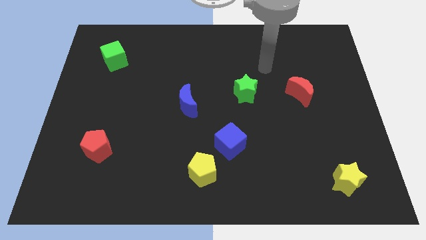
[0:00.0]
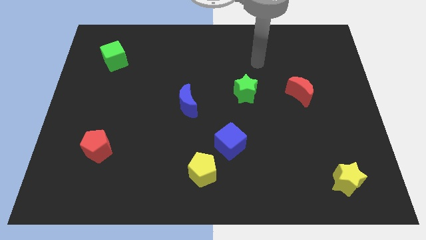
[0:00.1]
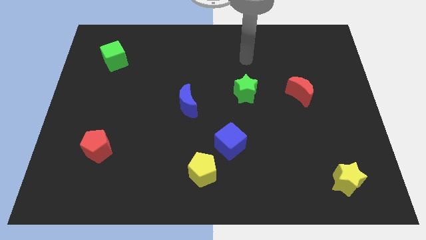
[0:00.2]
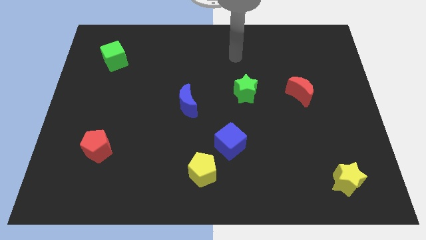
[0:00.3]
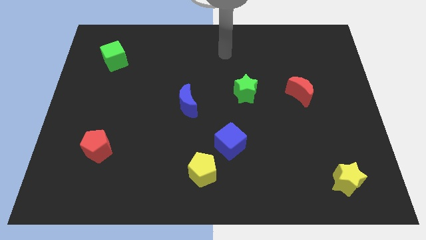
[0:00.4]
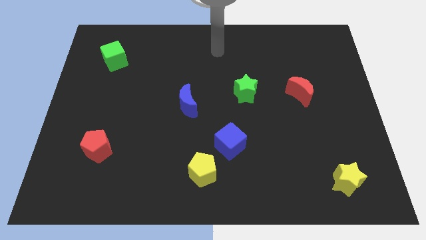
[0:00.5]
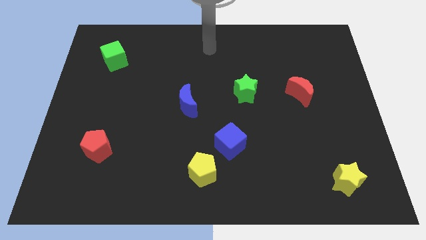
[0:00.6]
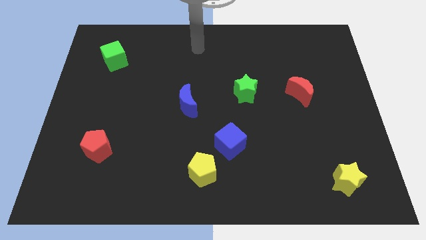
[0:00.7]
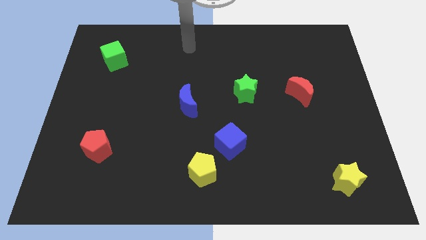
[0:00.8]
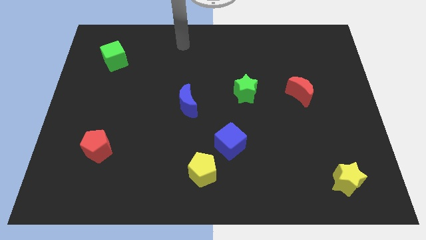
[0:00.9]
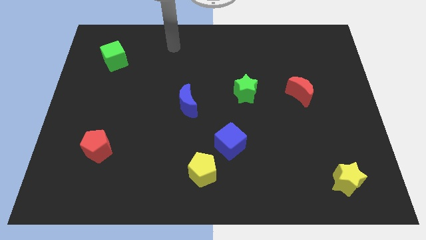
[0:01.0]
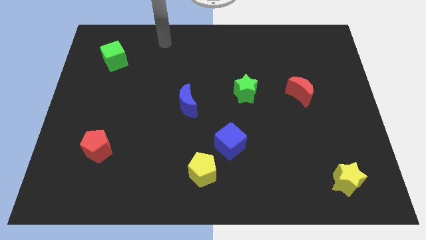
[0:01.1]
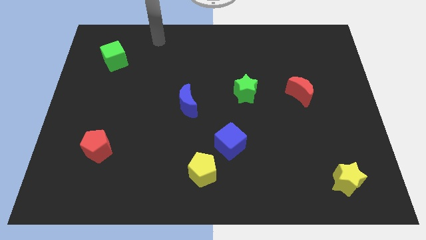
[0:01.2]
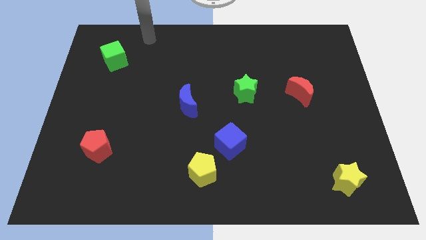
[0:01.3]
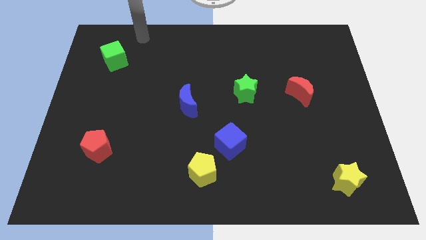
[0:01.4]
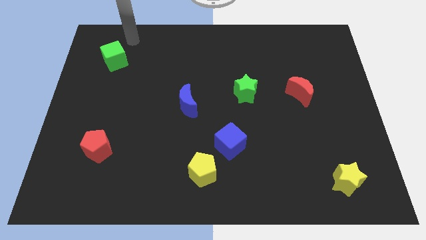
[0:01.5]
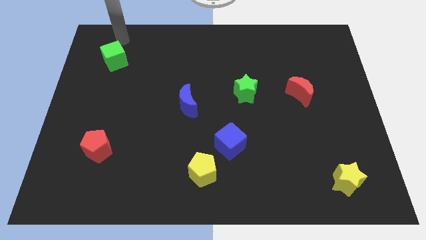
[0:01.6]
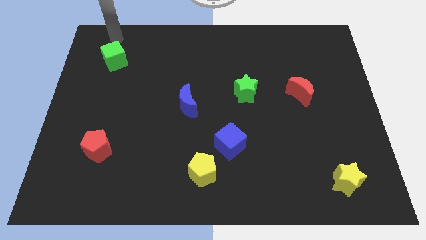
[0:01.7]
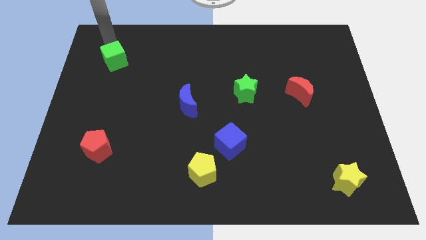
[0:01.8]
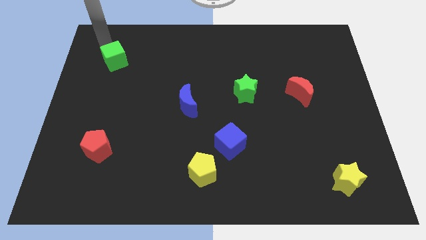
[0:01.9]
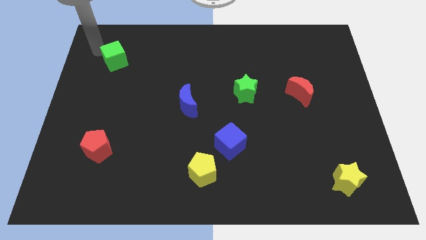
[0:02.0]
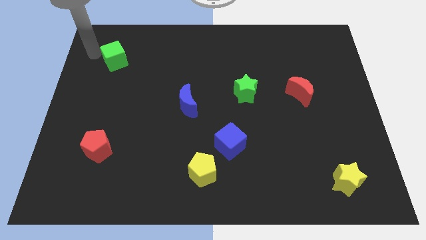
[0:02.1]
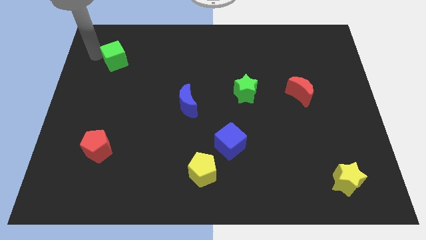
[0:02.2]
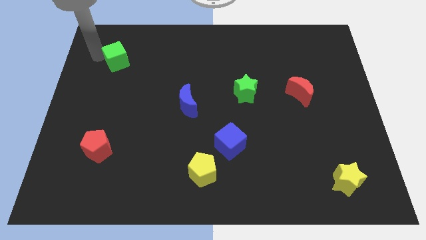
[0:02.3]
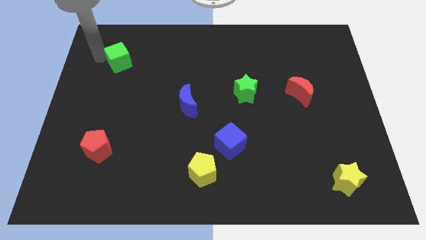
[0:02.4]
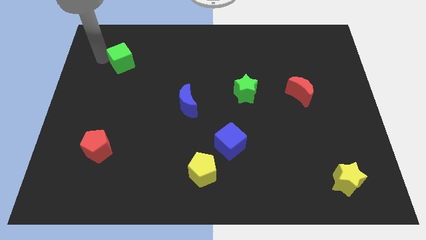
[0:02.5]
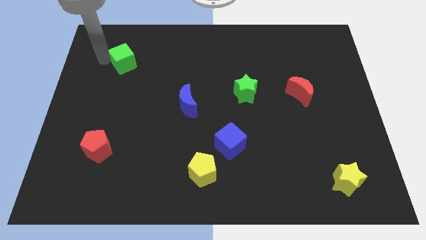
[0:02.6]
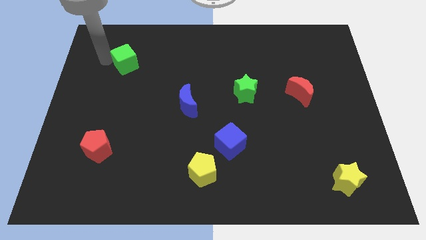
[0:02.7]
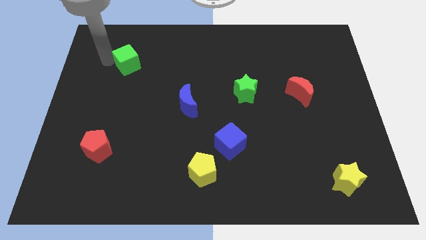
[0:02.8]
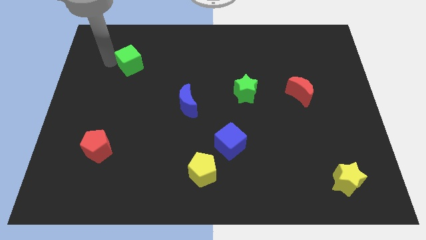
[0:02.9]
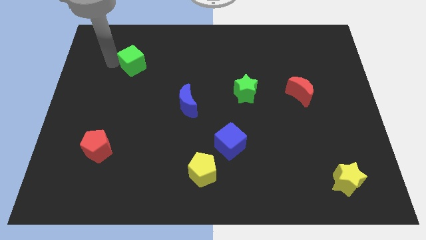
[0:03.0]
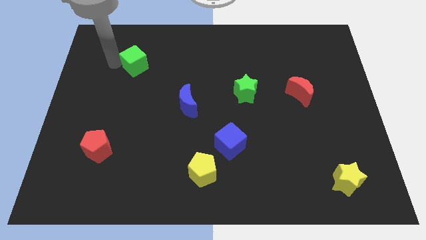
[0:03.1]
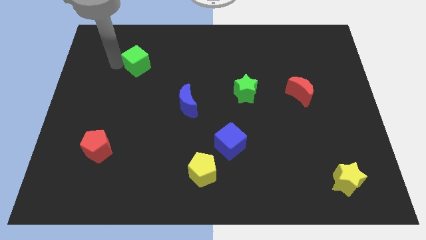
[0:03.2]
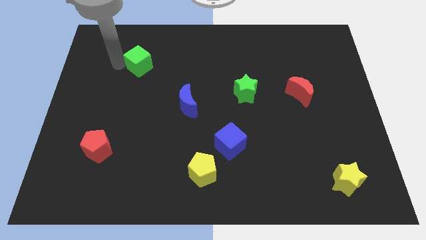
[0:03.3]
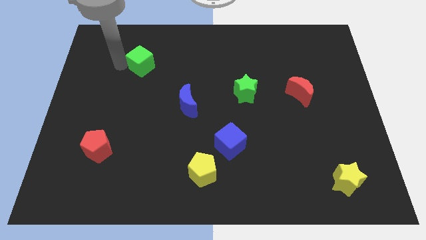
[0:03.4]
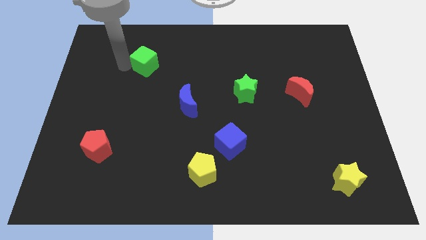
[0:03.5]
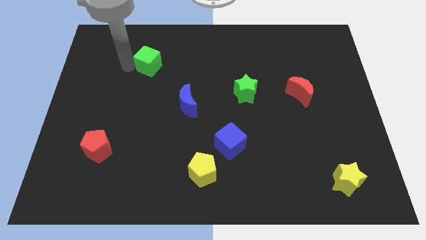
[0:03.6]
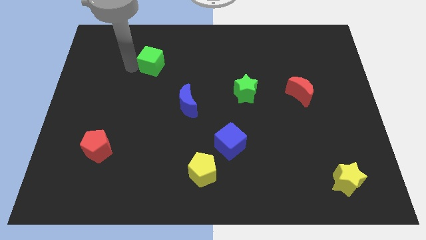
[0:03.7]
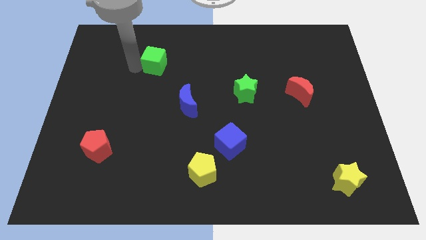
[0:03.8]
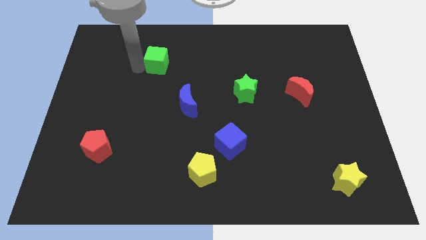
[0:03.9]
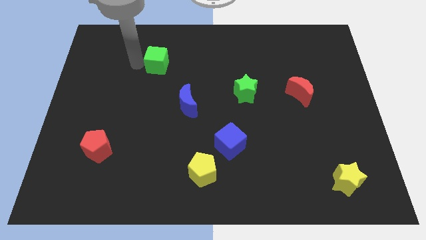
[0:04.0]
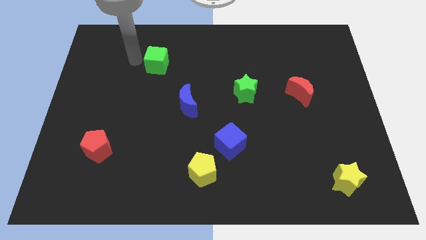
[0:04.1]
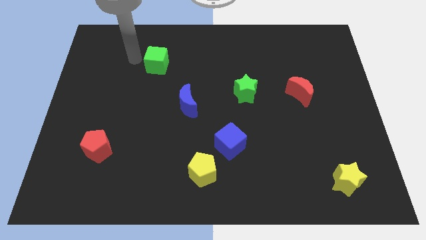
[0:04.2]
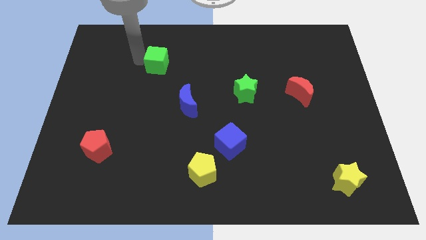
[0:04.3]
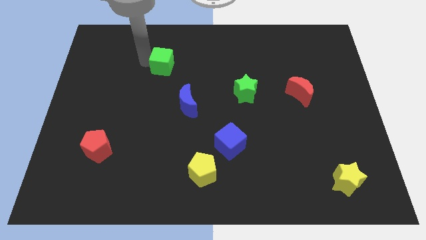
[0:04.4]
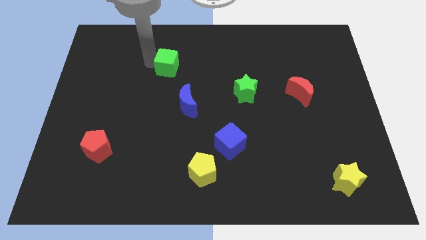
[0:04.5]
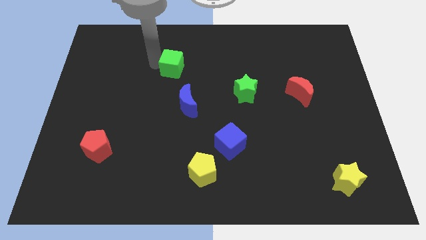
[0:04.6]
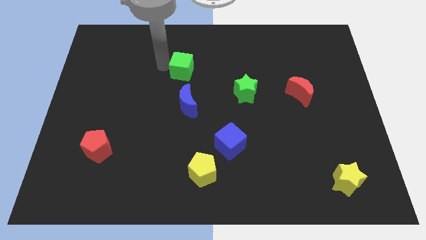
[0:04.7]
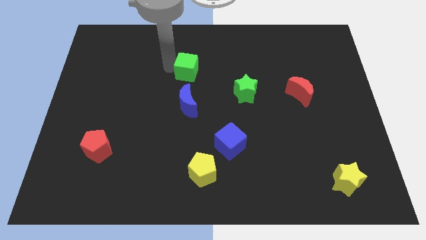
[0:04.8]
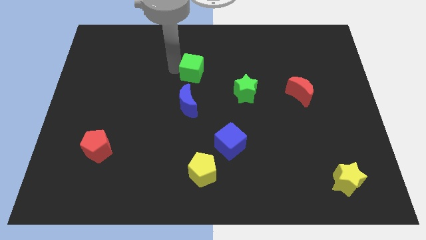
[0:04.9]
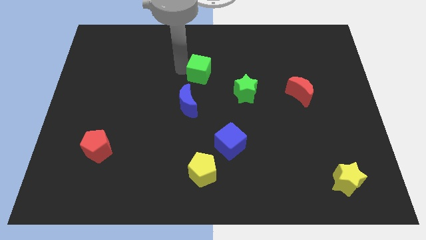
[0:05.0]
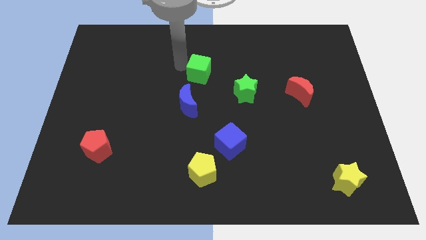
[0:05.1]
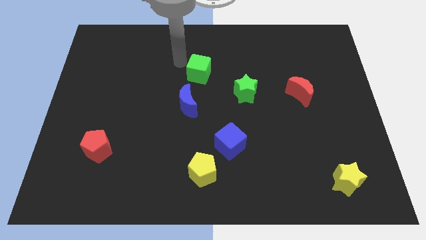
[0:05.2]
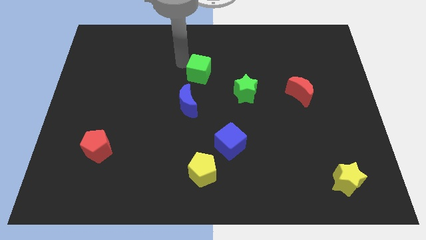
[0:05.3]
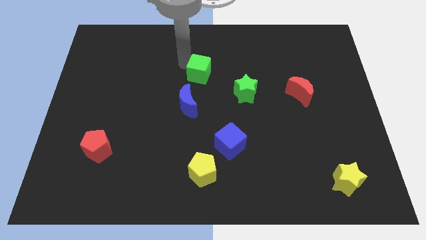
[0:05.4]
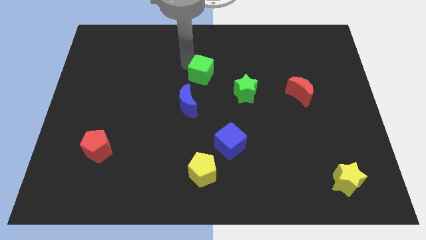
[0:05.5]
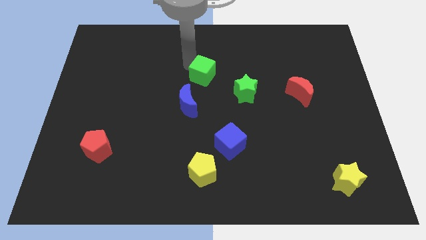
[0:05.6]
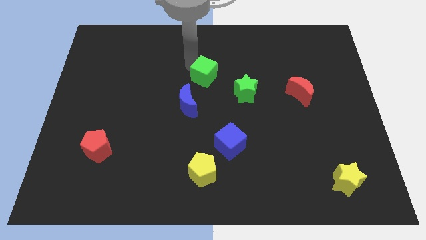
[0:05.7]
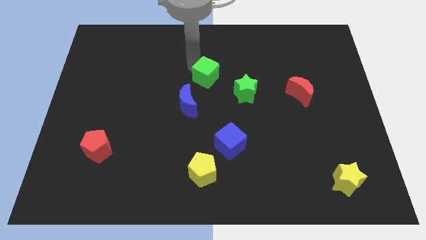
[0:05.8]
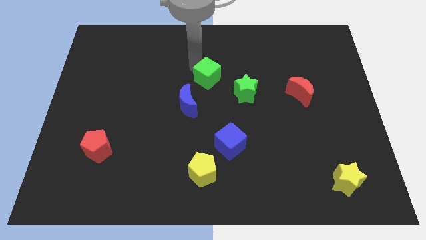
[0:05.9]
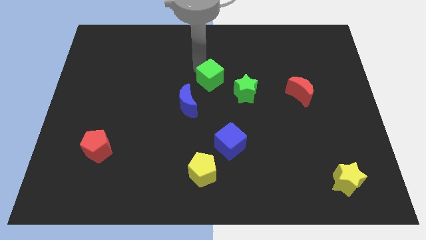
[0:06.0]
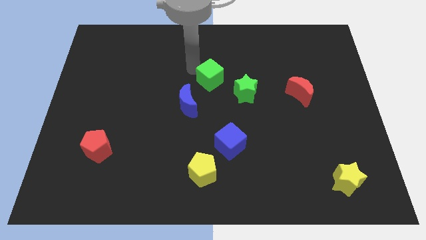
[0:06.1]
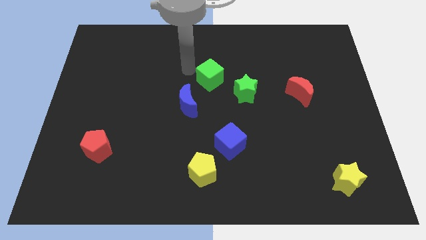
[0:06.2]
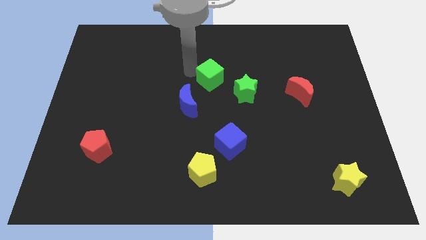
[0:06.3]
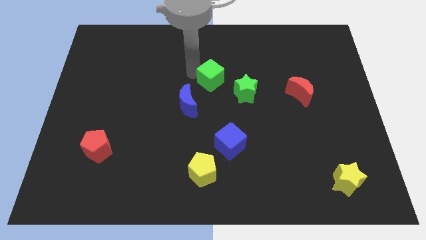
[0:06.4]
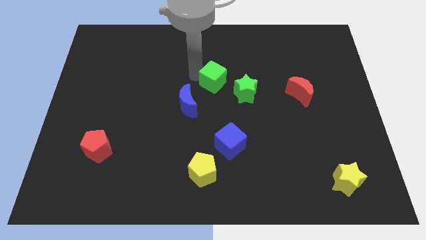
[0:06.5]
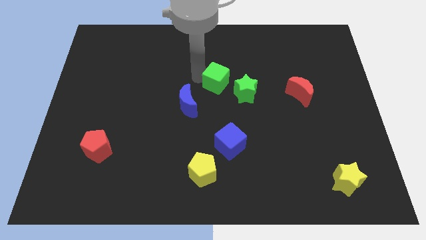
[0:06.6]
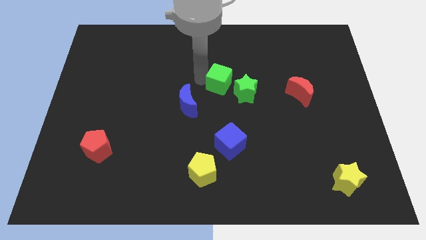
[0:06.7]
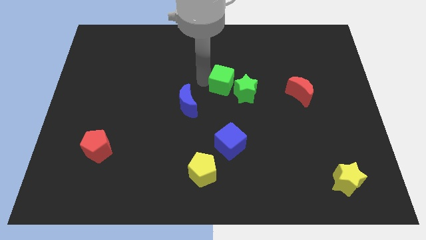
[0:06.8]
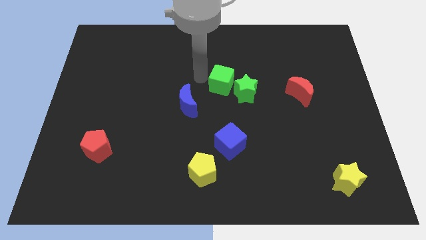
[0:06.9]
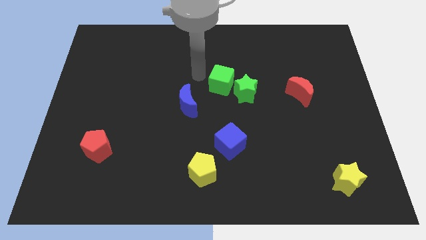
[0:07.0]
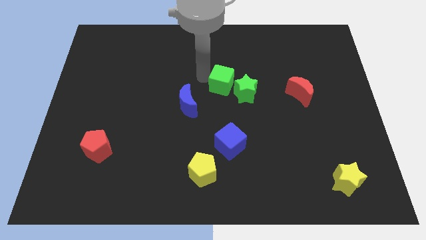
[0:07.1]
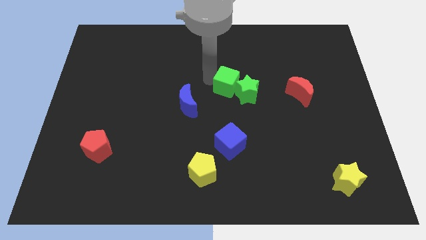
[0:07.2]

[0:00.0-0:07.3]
slide the green cube towards the green star
